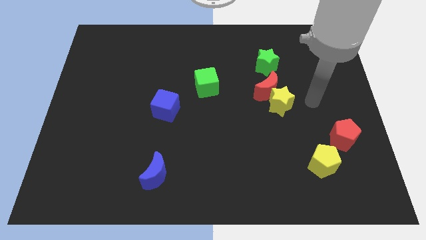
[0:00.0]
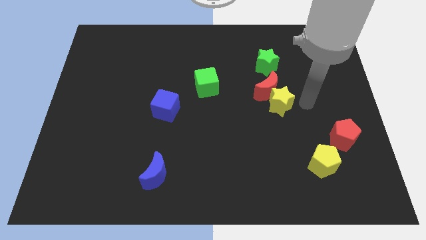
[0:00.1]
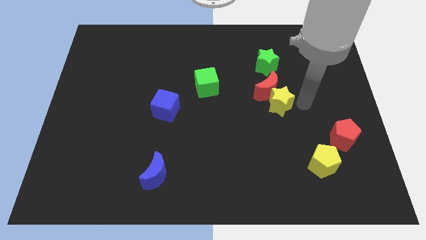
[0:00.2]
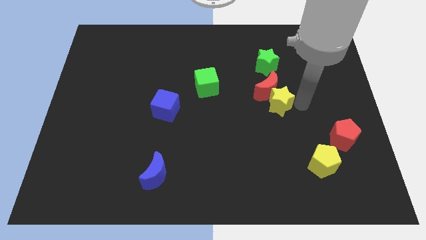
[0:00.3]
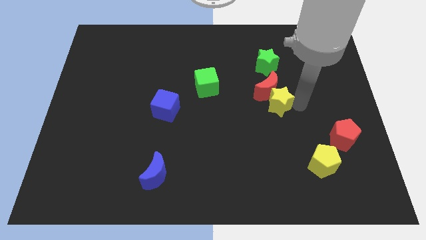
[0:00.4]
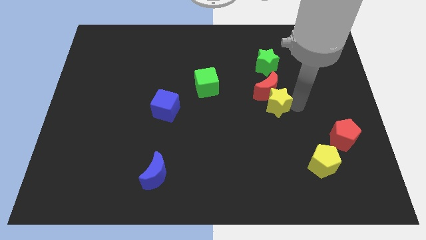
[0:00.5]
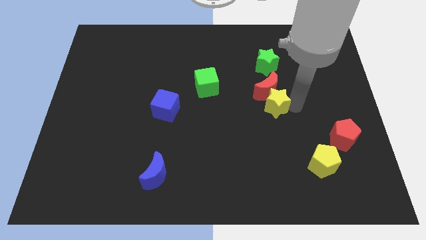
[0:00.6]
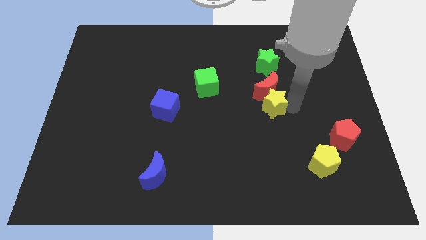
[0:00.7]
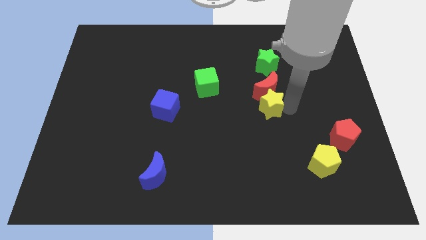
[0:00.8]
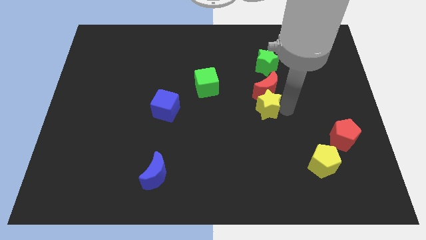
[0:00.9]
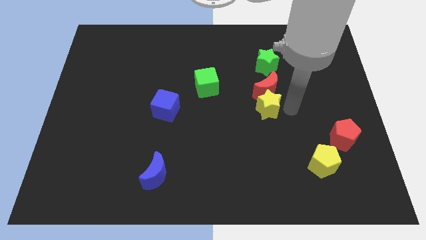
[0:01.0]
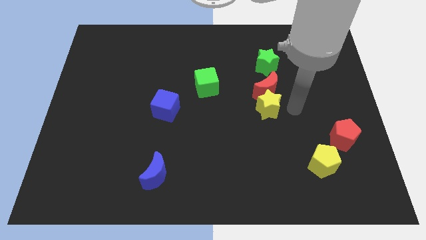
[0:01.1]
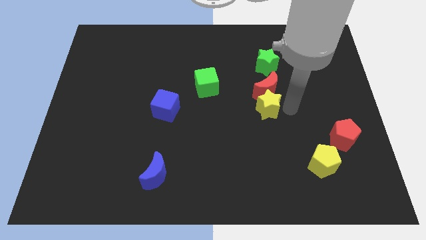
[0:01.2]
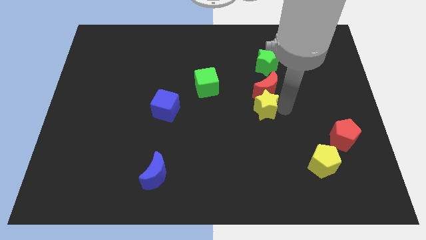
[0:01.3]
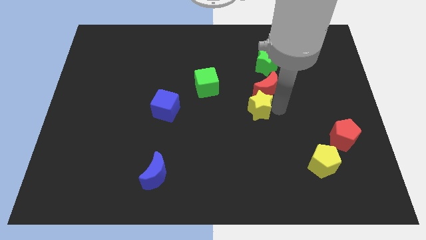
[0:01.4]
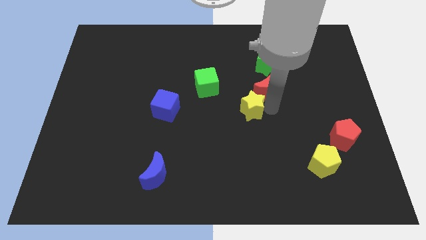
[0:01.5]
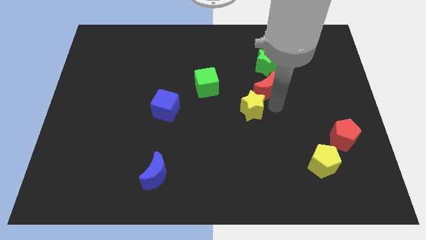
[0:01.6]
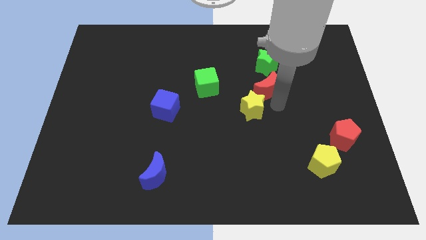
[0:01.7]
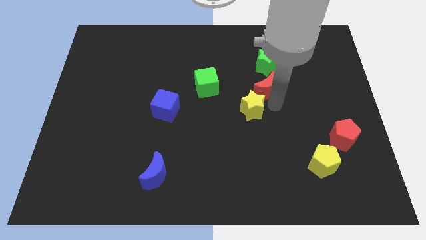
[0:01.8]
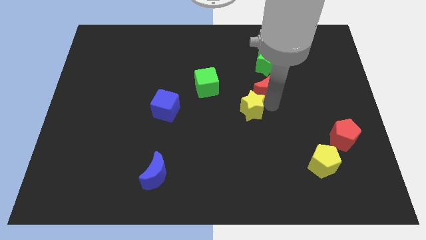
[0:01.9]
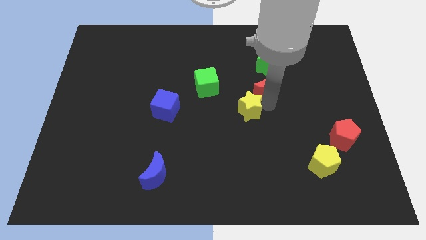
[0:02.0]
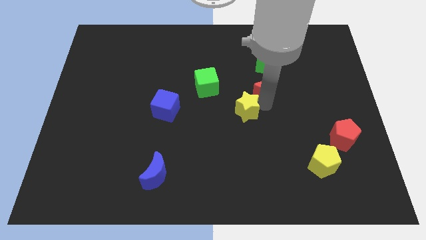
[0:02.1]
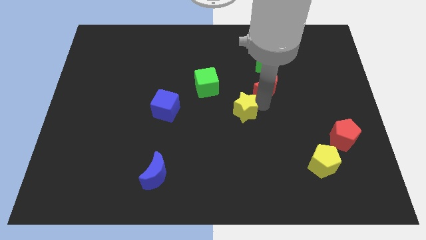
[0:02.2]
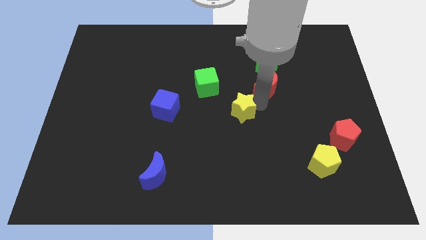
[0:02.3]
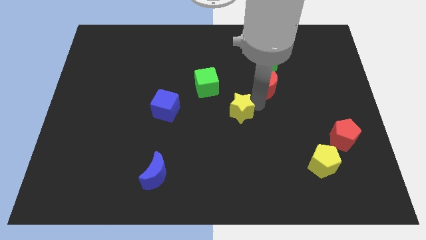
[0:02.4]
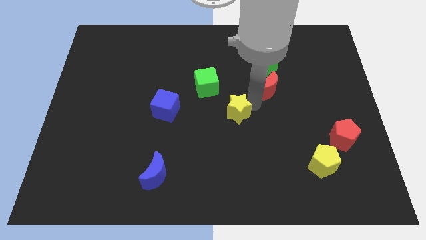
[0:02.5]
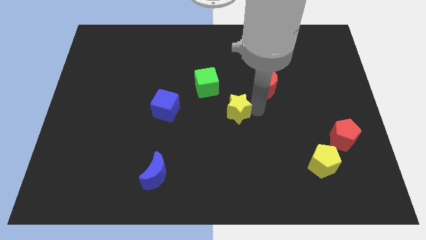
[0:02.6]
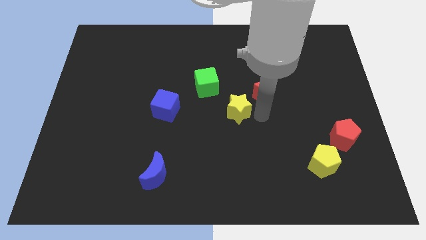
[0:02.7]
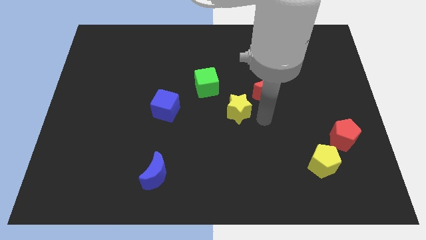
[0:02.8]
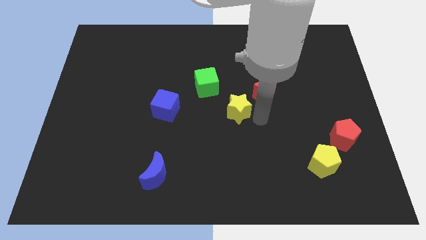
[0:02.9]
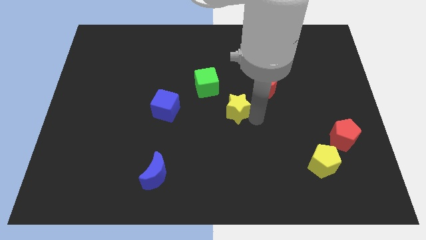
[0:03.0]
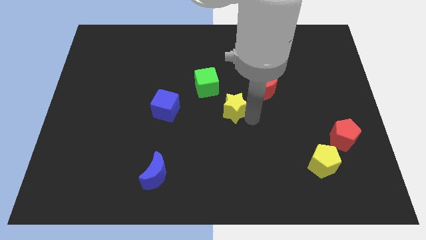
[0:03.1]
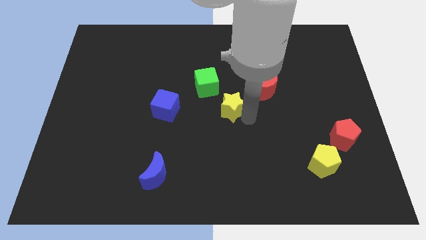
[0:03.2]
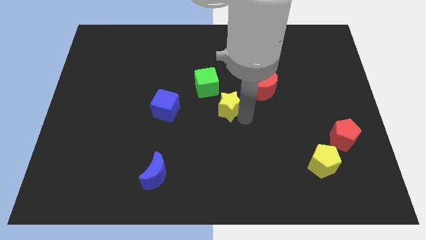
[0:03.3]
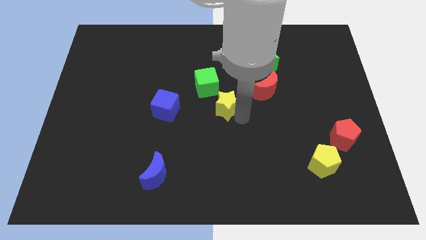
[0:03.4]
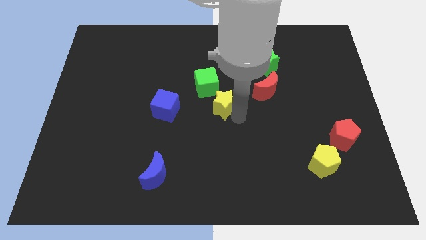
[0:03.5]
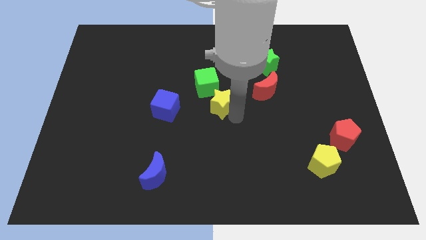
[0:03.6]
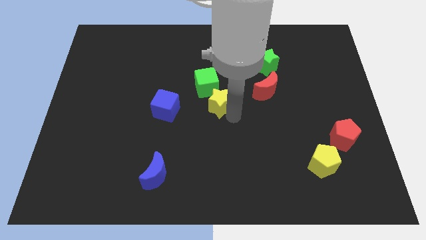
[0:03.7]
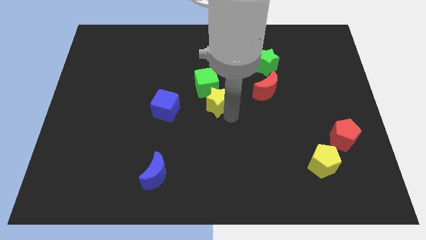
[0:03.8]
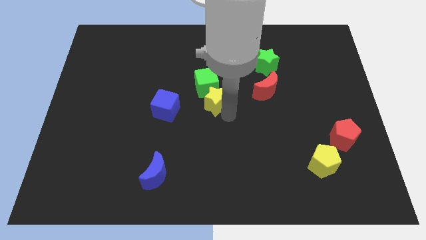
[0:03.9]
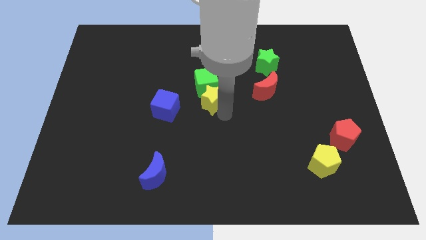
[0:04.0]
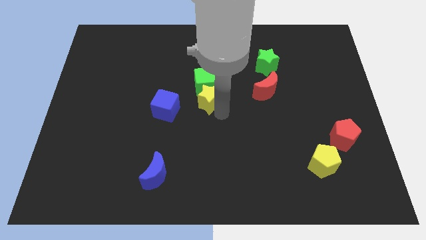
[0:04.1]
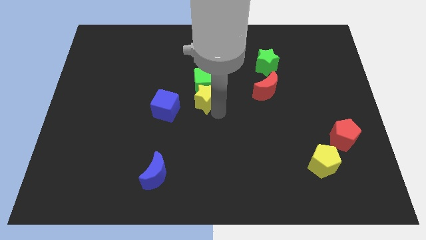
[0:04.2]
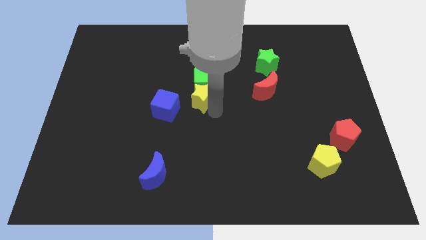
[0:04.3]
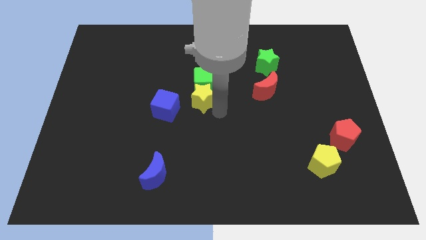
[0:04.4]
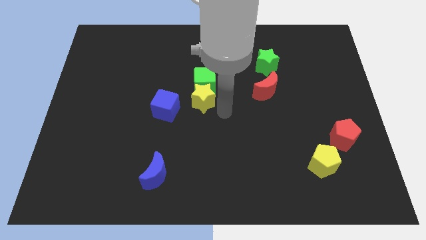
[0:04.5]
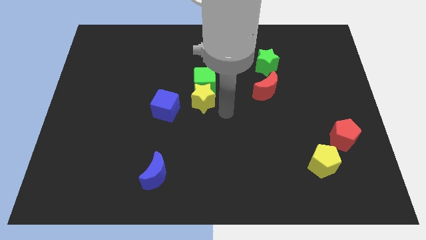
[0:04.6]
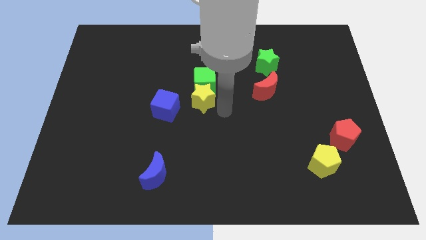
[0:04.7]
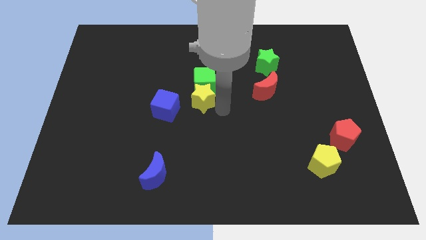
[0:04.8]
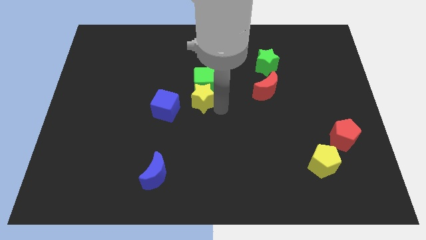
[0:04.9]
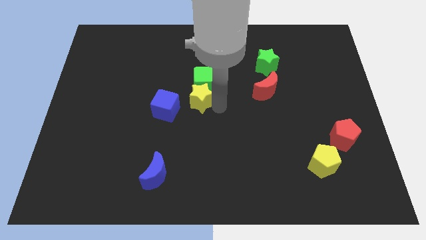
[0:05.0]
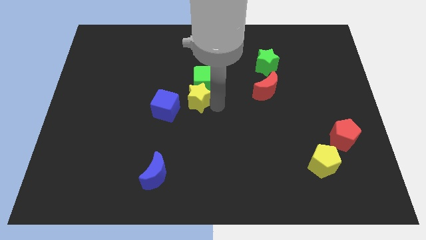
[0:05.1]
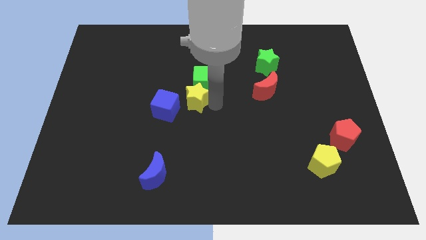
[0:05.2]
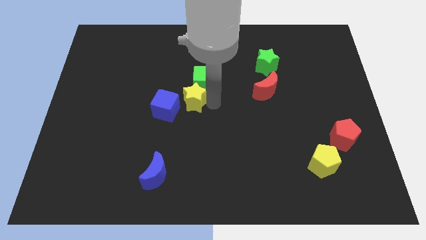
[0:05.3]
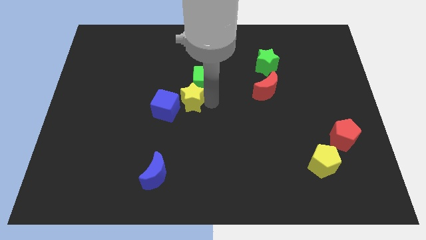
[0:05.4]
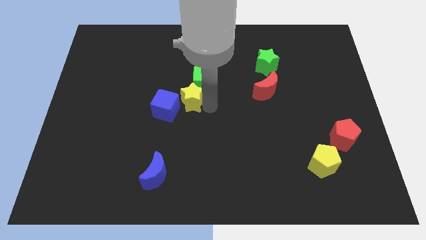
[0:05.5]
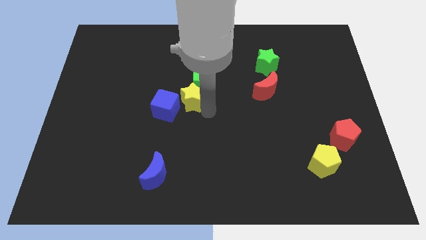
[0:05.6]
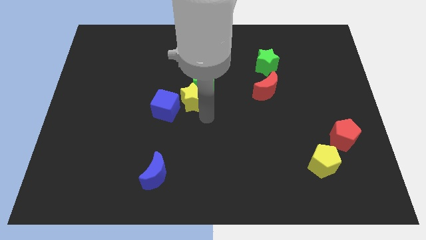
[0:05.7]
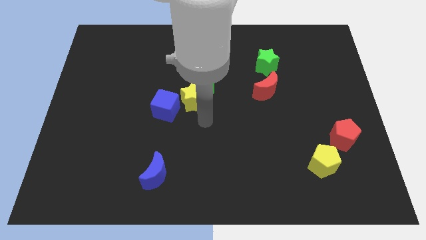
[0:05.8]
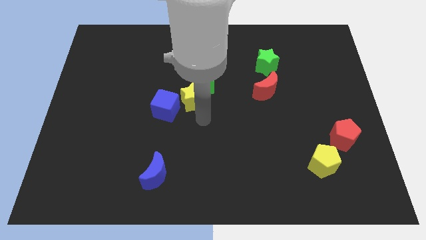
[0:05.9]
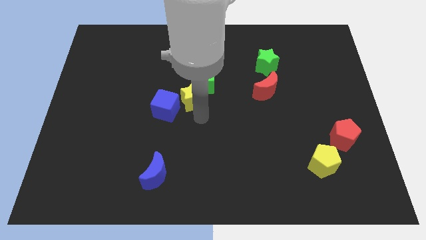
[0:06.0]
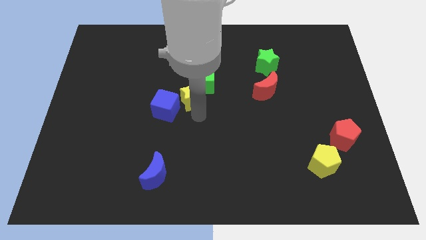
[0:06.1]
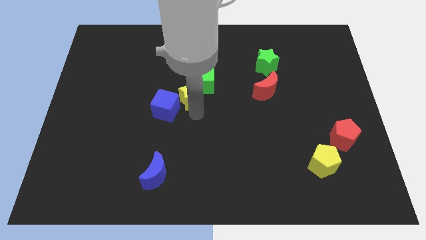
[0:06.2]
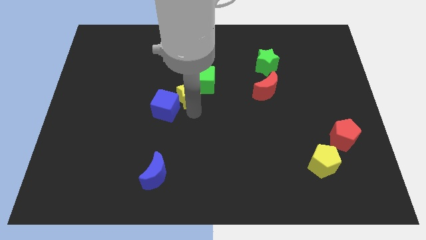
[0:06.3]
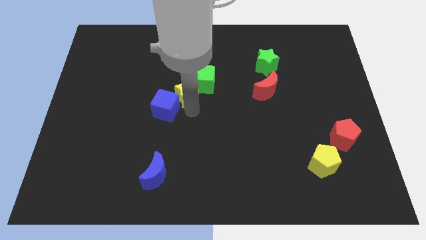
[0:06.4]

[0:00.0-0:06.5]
push the yellow star to the top side of the blue cube

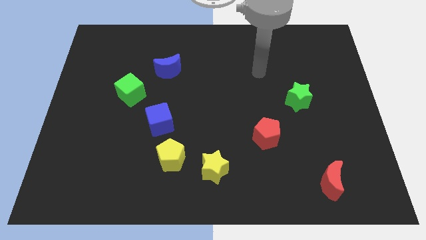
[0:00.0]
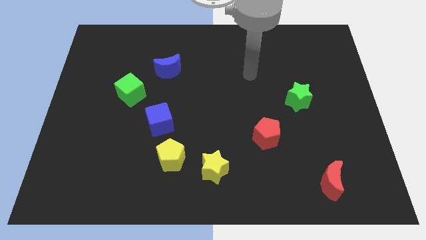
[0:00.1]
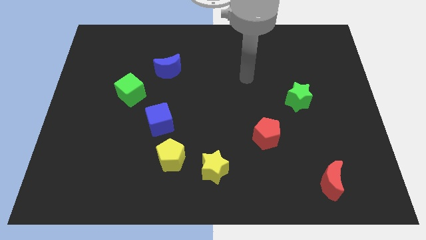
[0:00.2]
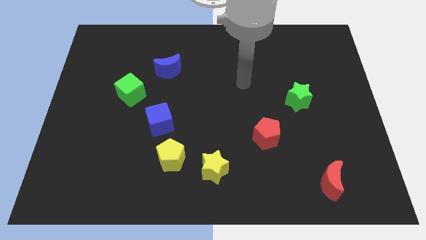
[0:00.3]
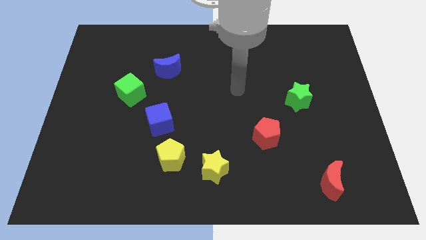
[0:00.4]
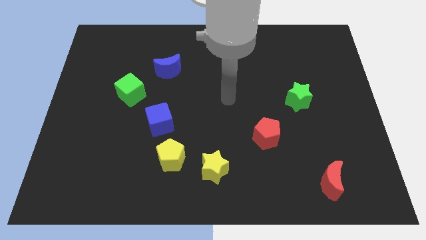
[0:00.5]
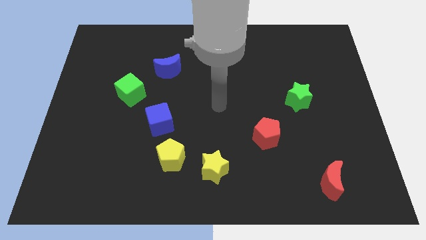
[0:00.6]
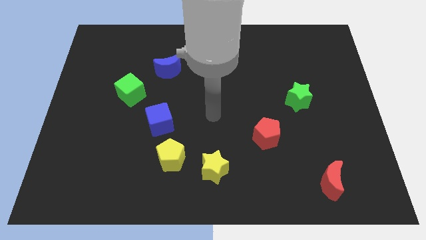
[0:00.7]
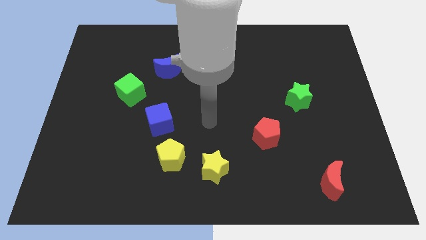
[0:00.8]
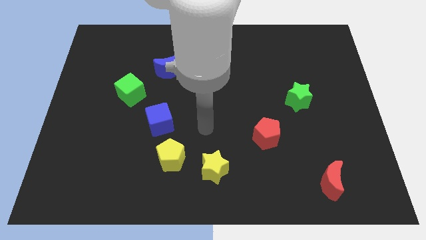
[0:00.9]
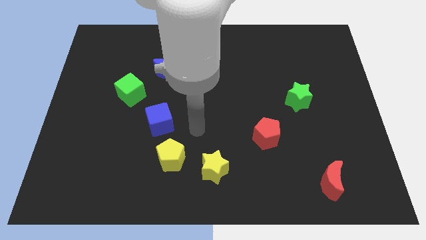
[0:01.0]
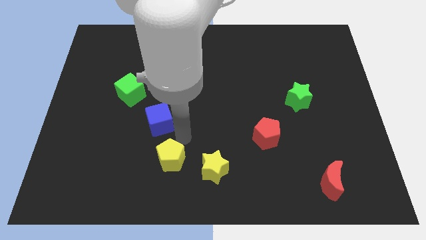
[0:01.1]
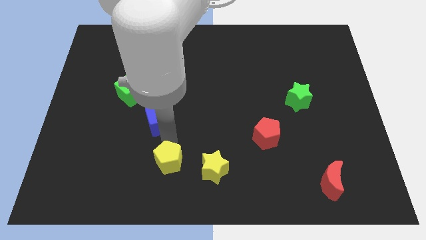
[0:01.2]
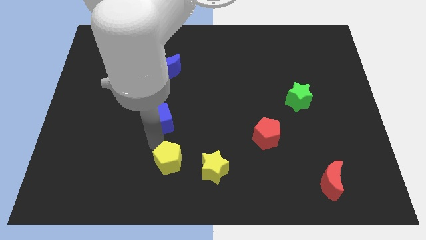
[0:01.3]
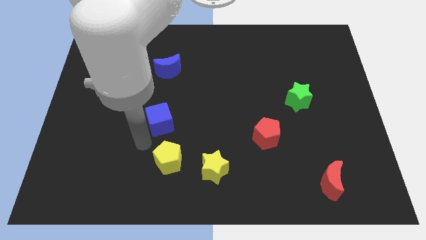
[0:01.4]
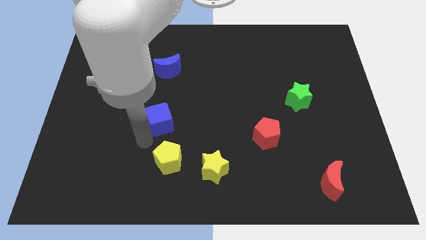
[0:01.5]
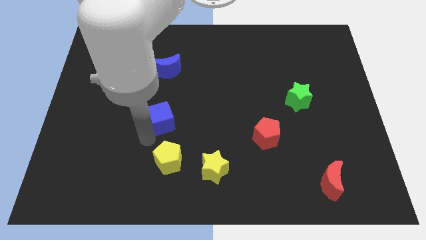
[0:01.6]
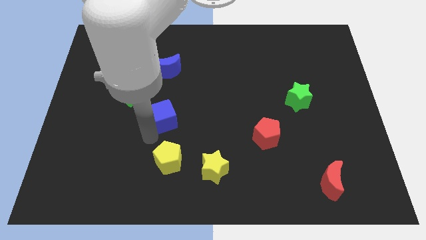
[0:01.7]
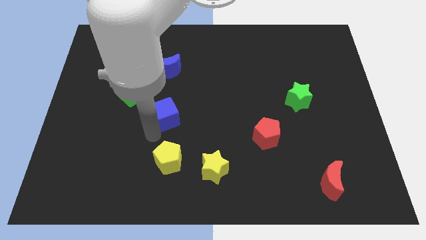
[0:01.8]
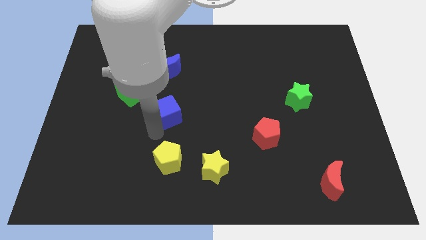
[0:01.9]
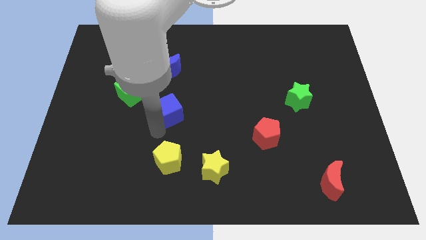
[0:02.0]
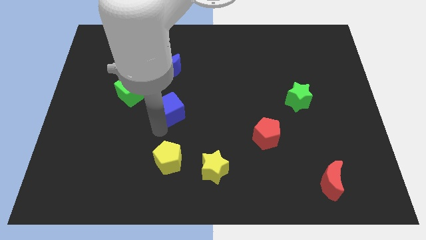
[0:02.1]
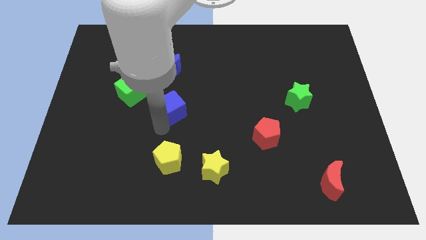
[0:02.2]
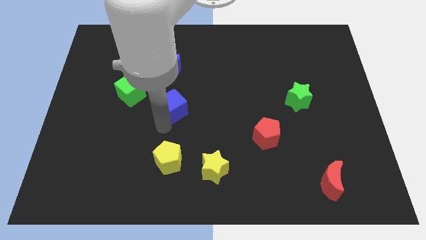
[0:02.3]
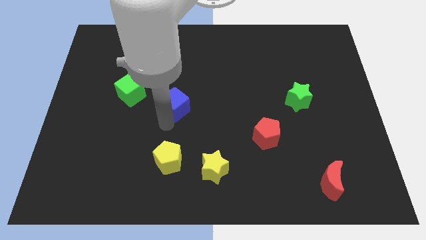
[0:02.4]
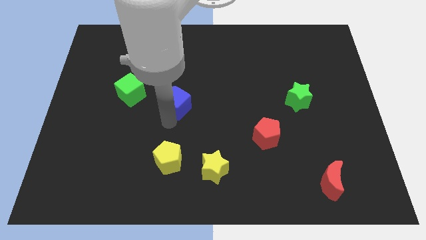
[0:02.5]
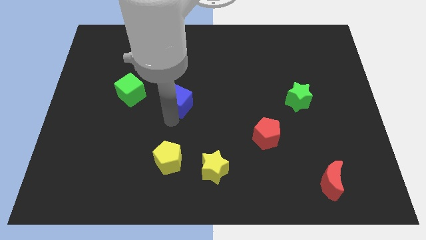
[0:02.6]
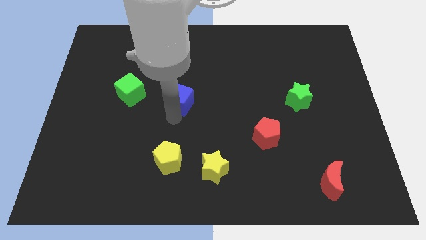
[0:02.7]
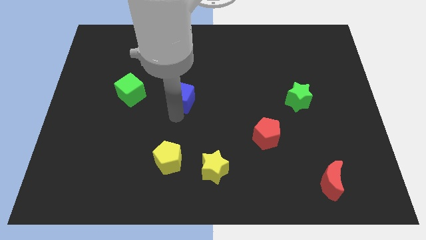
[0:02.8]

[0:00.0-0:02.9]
move the blue cube to the bottom right of the blue moon
